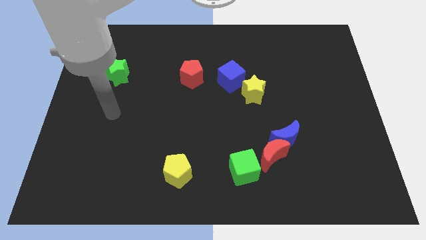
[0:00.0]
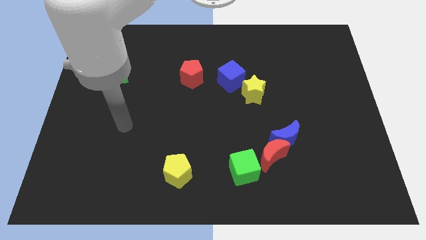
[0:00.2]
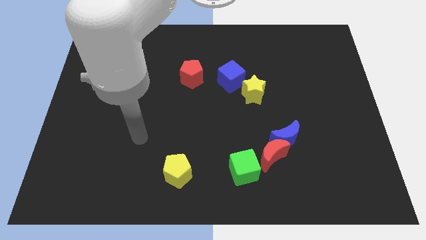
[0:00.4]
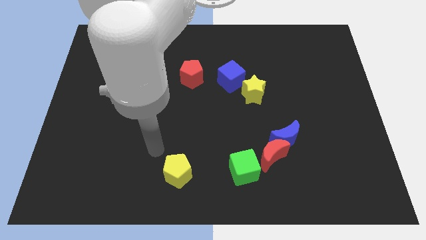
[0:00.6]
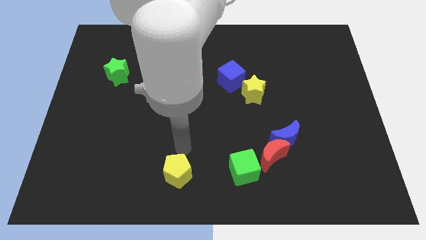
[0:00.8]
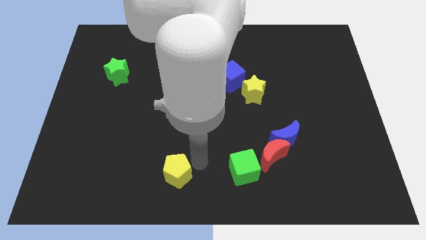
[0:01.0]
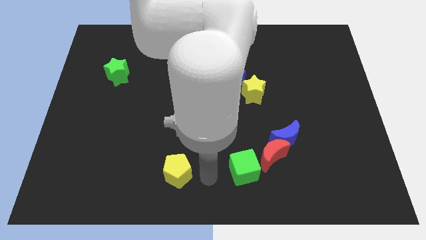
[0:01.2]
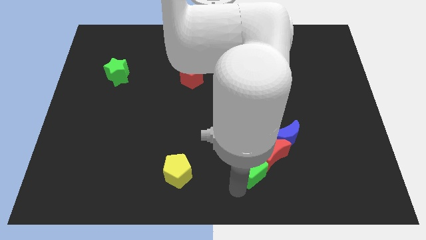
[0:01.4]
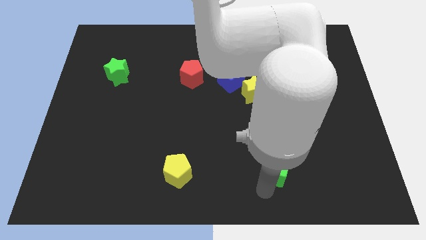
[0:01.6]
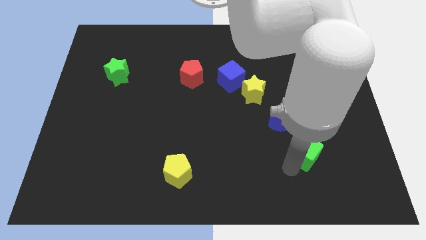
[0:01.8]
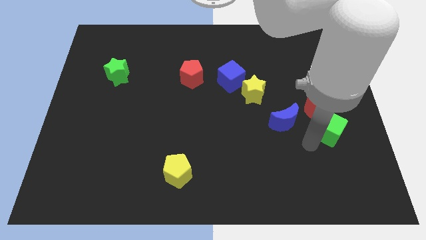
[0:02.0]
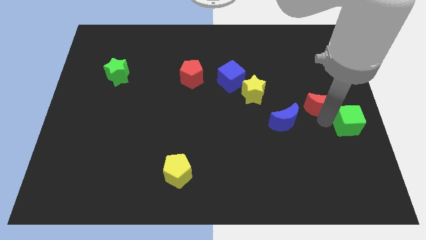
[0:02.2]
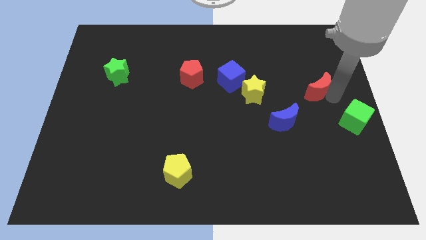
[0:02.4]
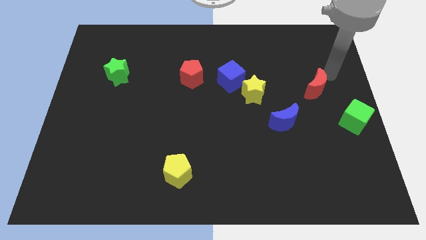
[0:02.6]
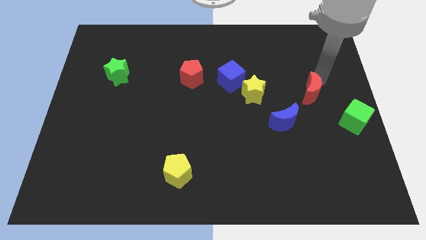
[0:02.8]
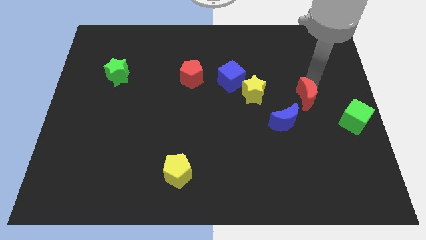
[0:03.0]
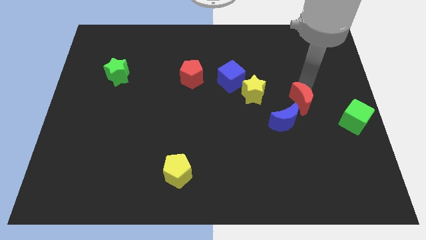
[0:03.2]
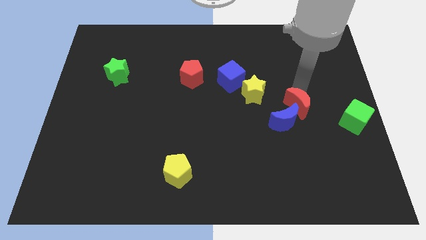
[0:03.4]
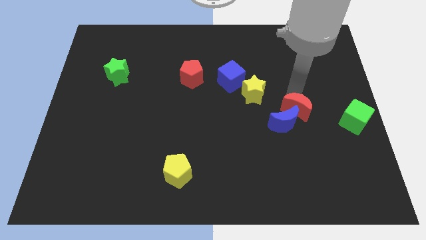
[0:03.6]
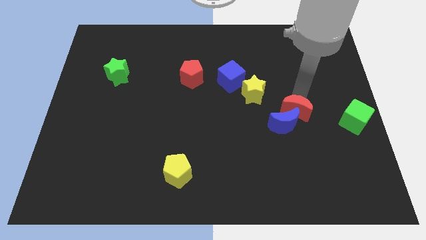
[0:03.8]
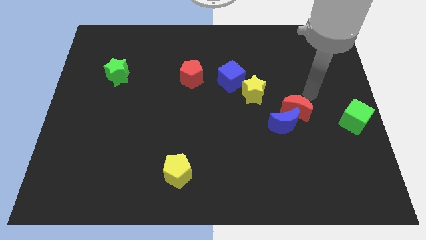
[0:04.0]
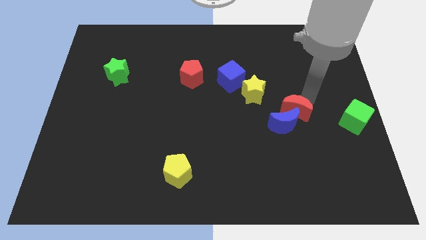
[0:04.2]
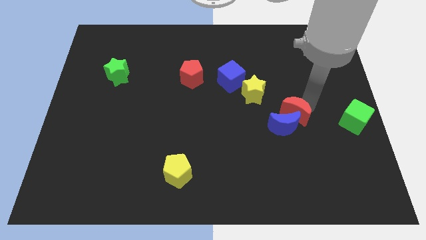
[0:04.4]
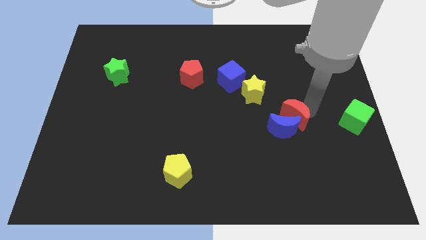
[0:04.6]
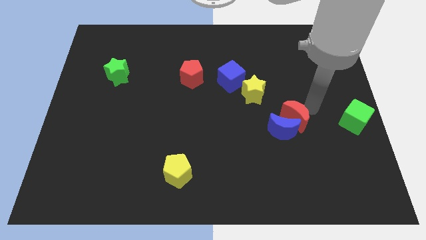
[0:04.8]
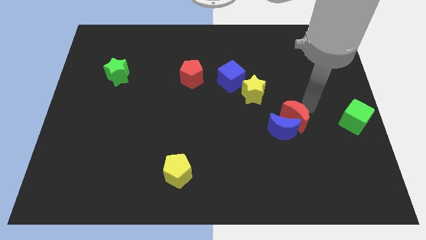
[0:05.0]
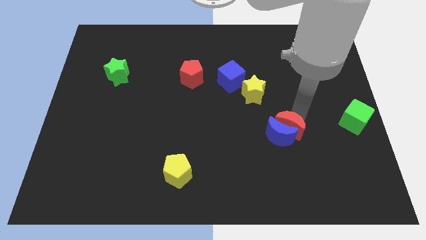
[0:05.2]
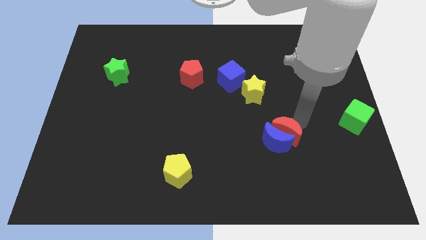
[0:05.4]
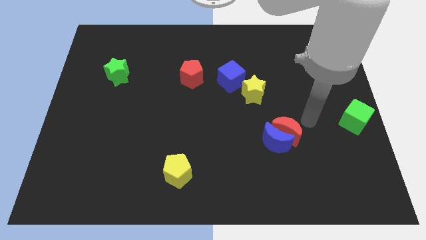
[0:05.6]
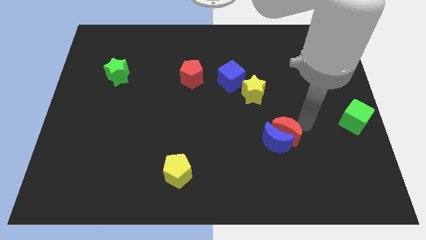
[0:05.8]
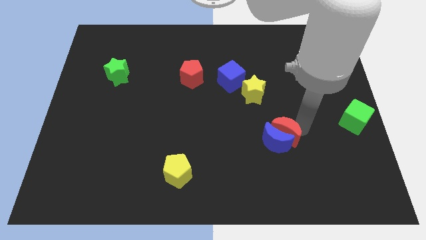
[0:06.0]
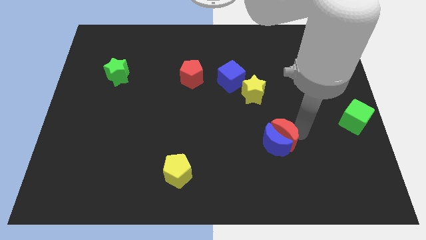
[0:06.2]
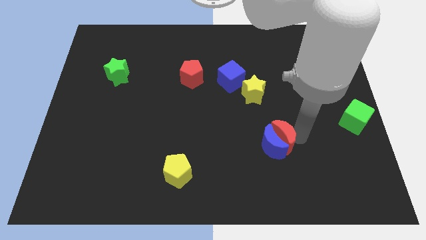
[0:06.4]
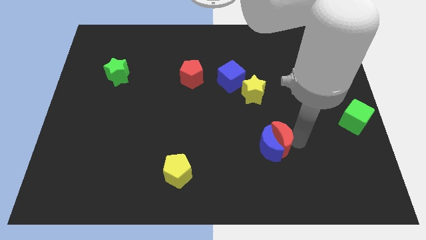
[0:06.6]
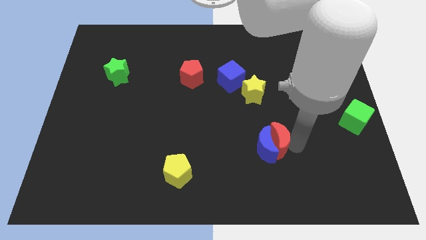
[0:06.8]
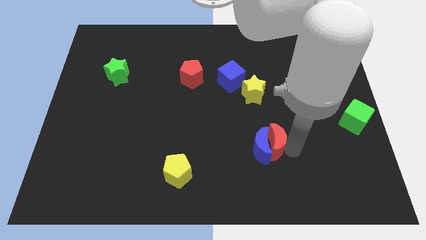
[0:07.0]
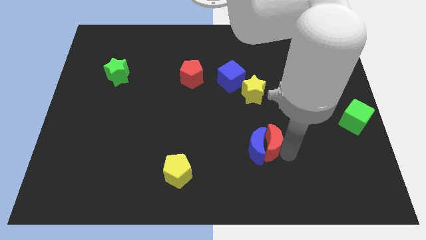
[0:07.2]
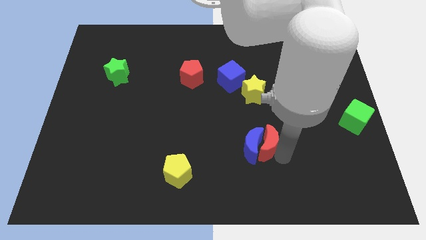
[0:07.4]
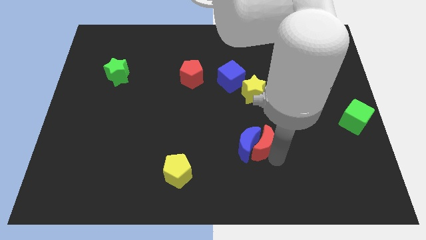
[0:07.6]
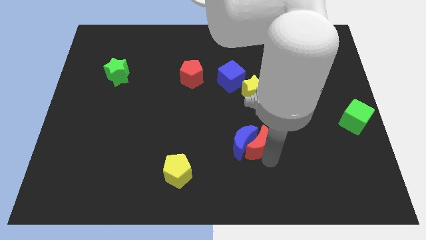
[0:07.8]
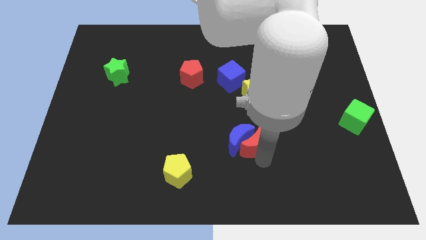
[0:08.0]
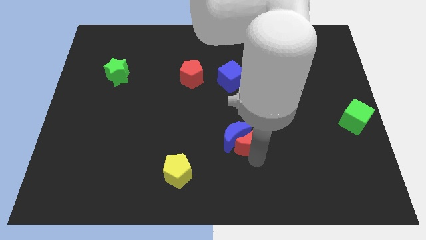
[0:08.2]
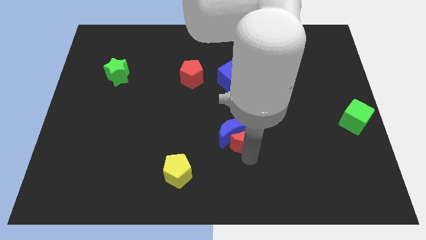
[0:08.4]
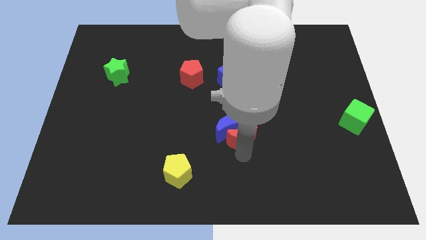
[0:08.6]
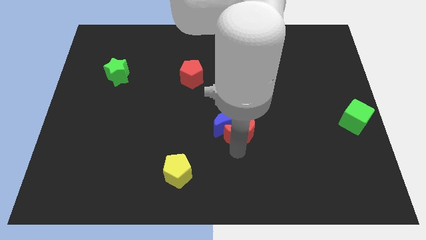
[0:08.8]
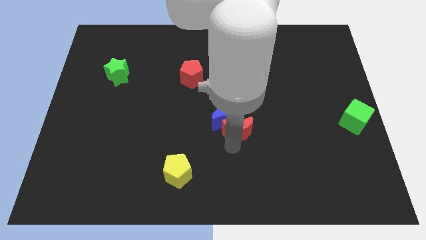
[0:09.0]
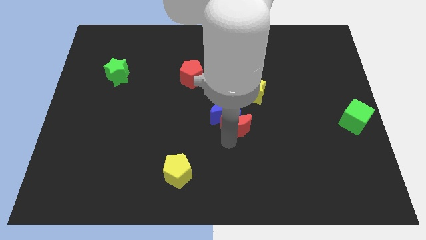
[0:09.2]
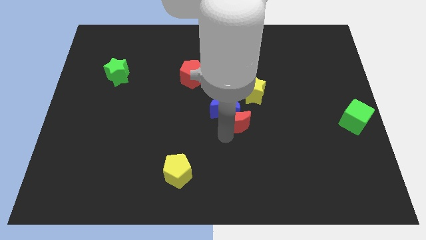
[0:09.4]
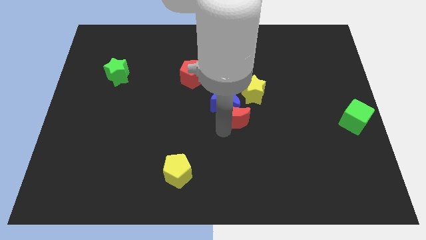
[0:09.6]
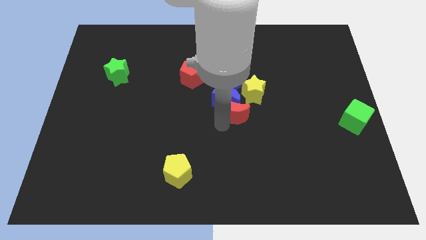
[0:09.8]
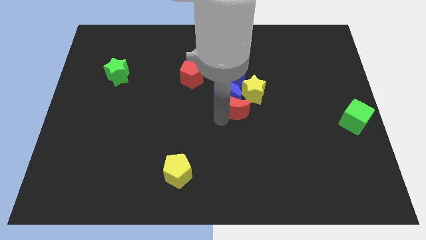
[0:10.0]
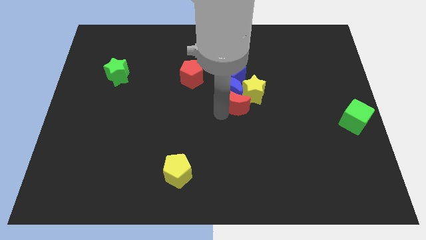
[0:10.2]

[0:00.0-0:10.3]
move the red moon to the yellow star

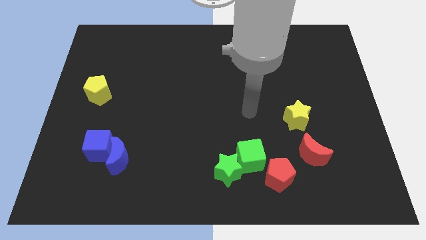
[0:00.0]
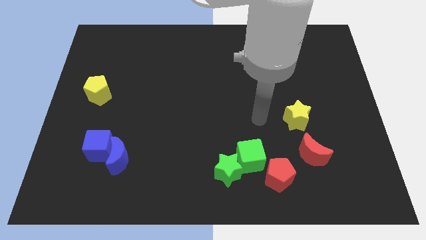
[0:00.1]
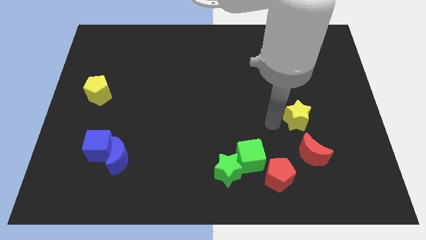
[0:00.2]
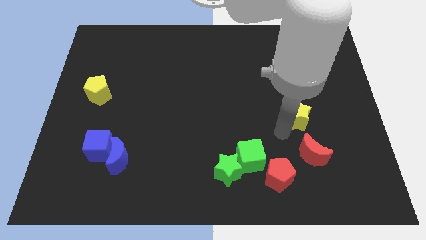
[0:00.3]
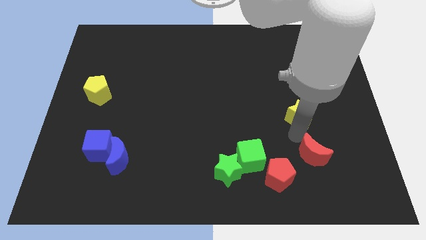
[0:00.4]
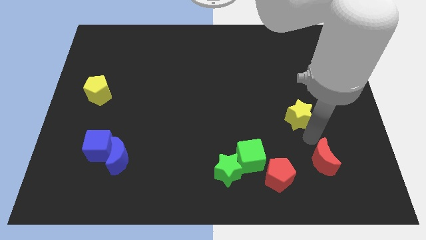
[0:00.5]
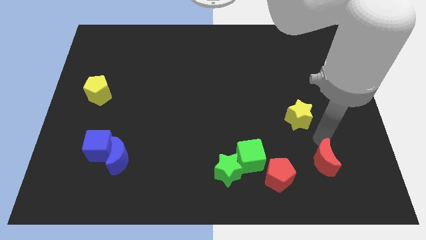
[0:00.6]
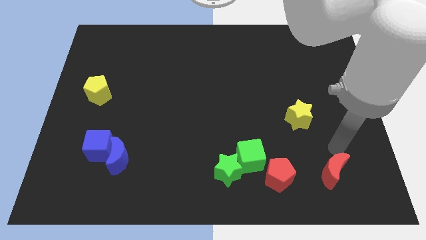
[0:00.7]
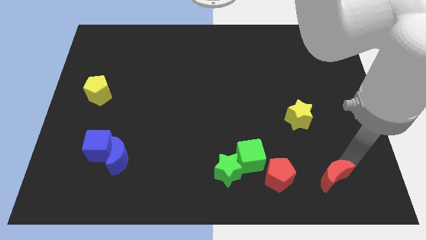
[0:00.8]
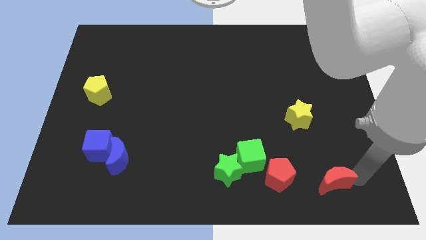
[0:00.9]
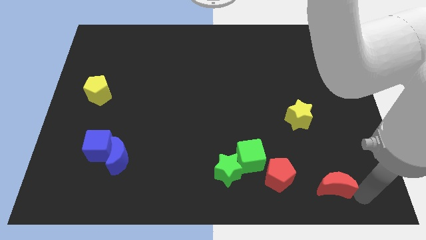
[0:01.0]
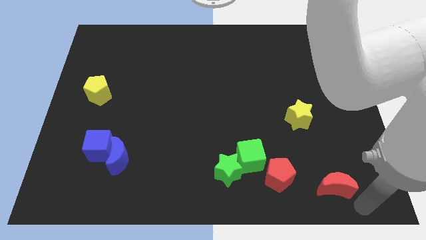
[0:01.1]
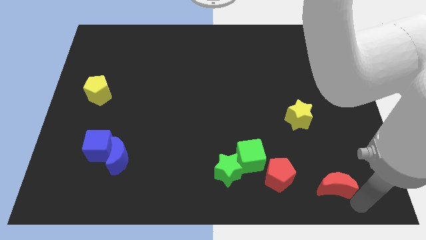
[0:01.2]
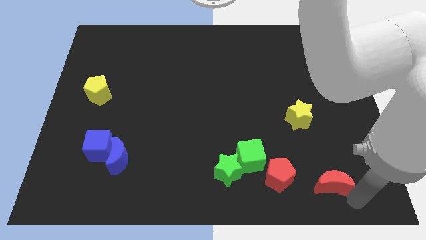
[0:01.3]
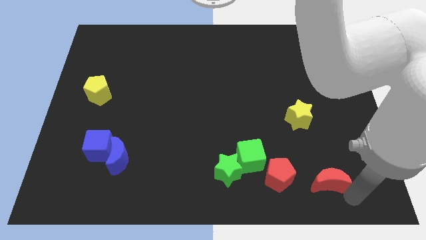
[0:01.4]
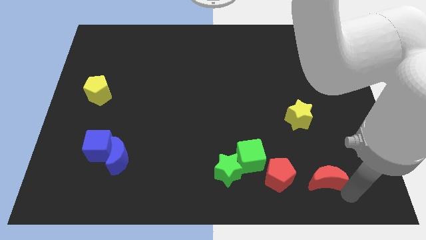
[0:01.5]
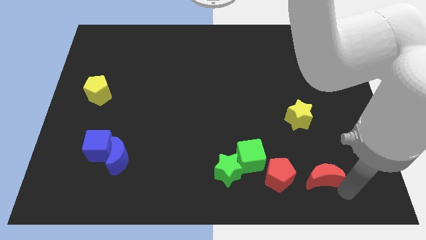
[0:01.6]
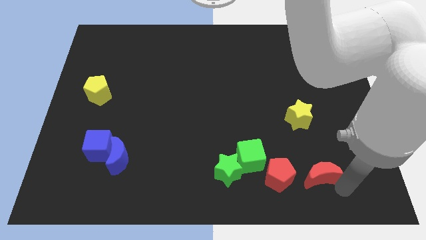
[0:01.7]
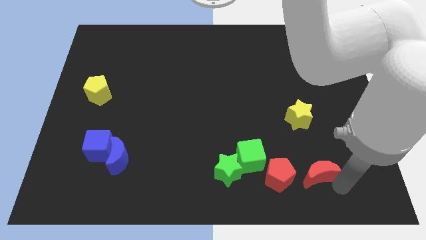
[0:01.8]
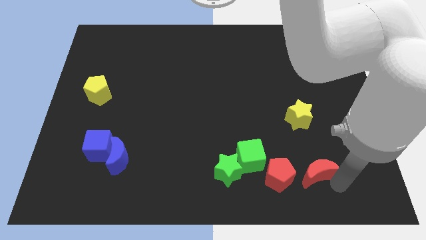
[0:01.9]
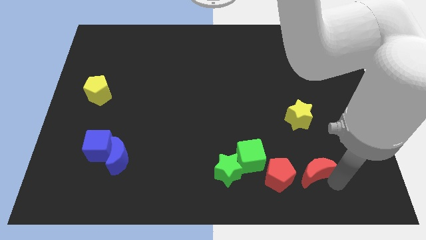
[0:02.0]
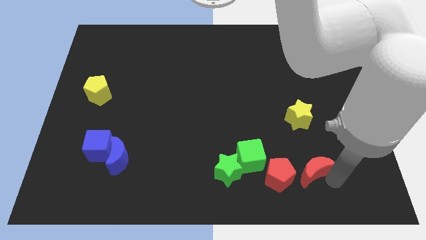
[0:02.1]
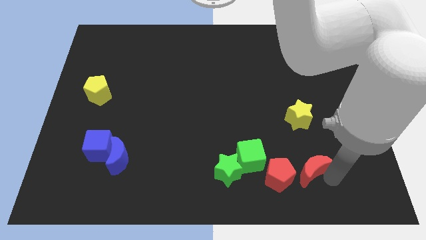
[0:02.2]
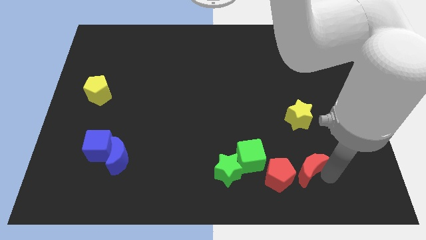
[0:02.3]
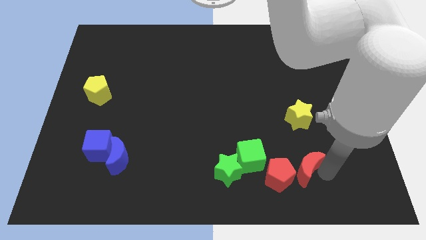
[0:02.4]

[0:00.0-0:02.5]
slide the red moon next to the red pentagon
